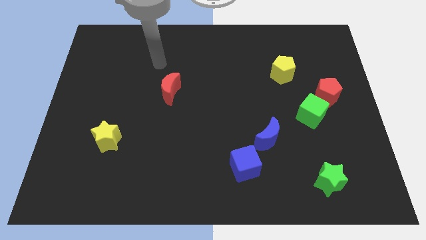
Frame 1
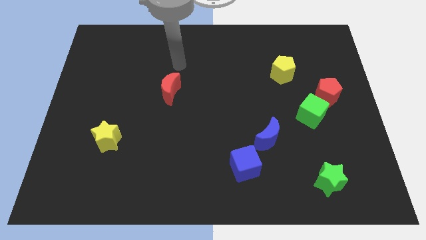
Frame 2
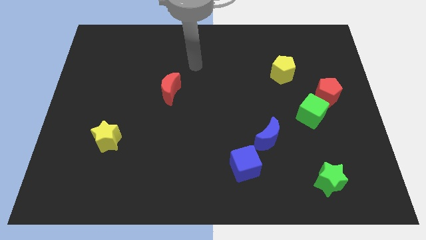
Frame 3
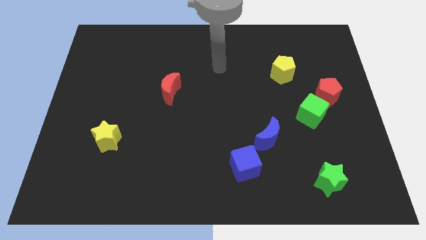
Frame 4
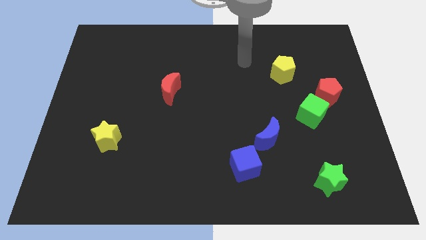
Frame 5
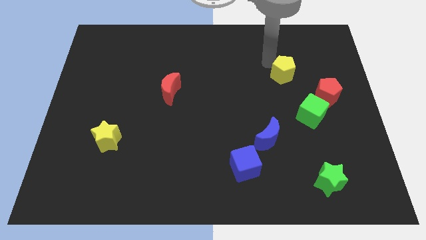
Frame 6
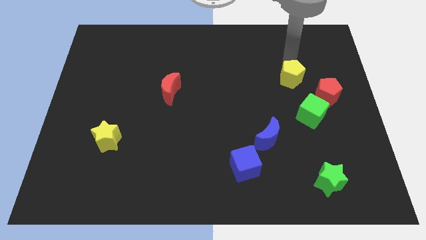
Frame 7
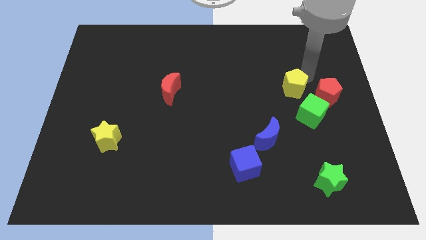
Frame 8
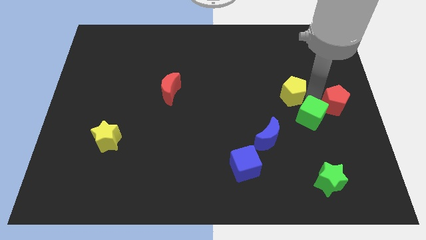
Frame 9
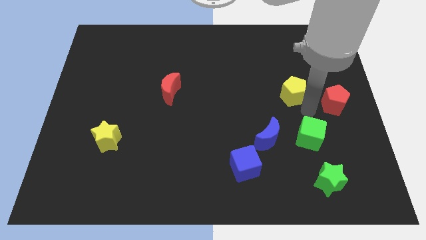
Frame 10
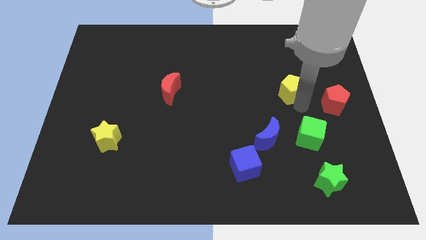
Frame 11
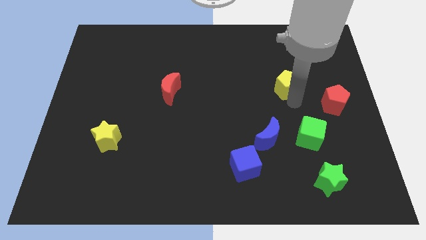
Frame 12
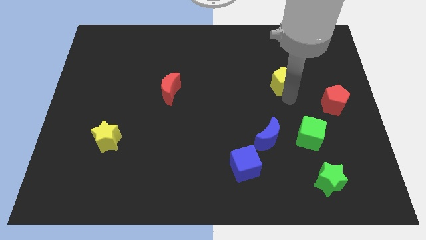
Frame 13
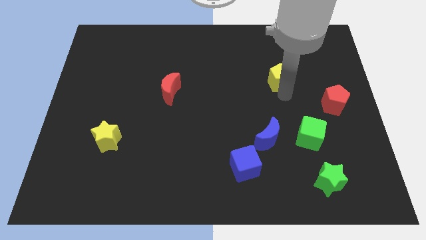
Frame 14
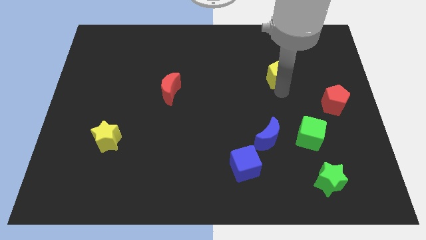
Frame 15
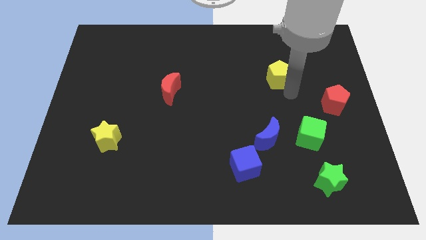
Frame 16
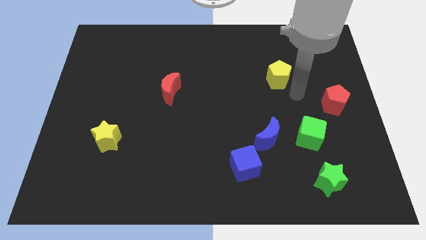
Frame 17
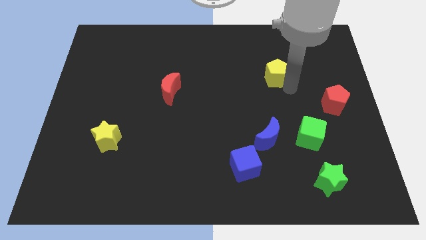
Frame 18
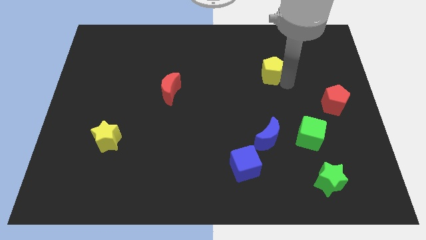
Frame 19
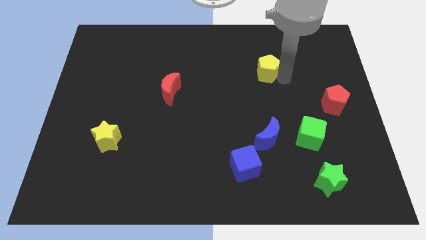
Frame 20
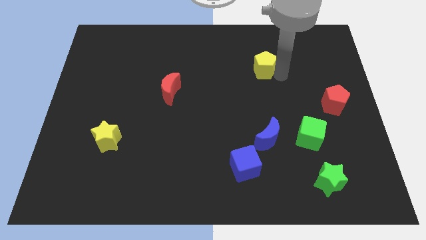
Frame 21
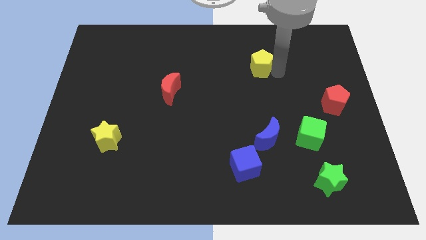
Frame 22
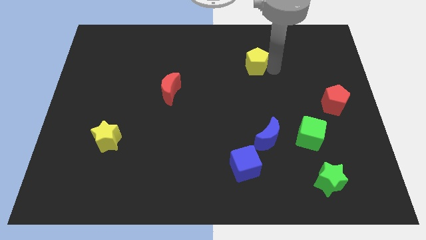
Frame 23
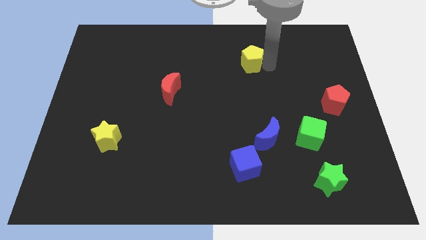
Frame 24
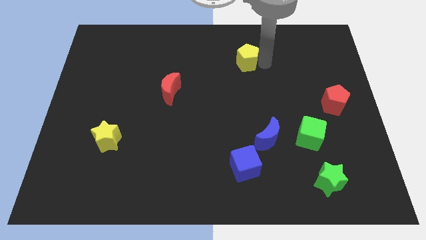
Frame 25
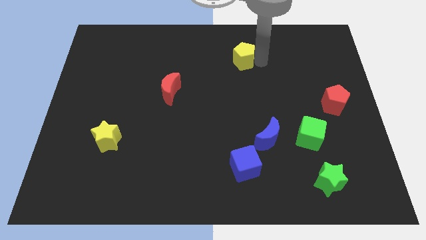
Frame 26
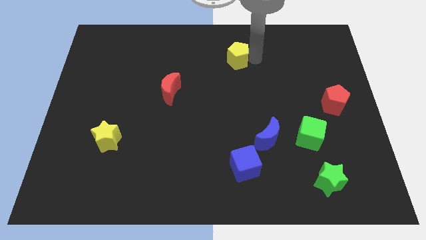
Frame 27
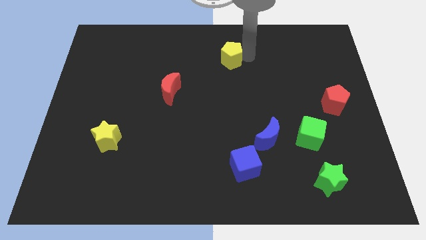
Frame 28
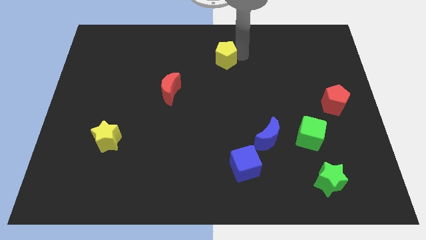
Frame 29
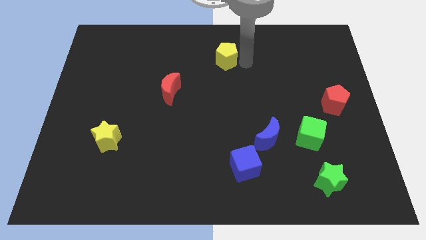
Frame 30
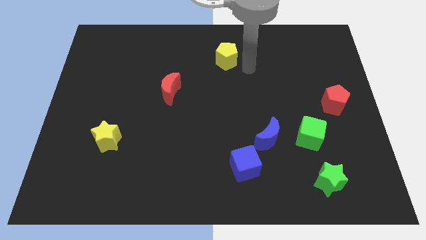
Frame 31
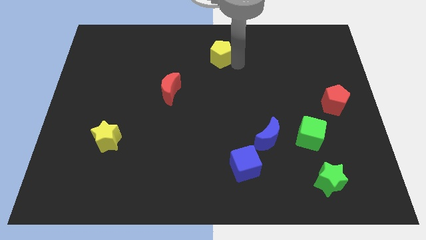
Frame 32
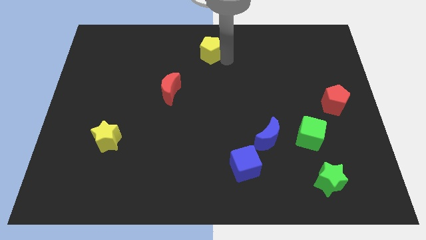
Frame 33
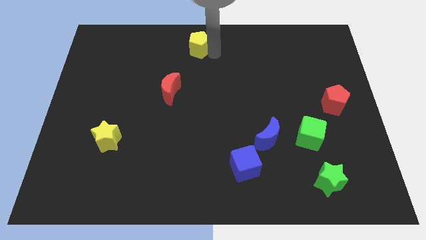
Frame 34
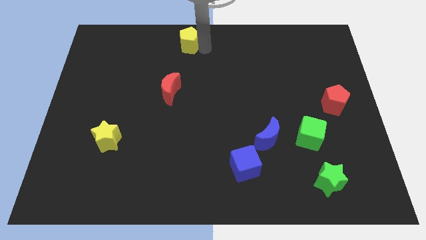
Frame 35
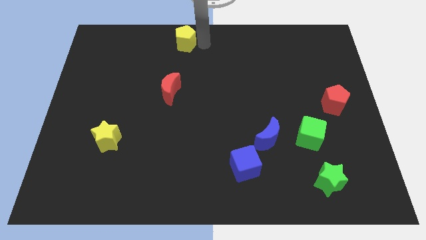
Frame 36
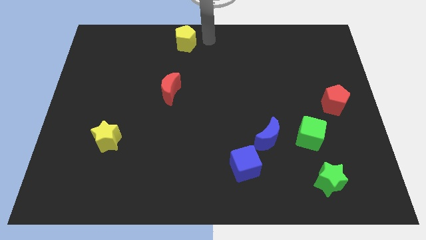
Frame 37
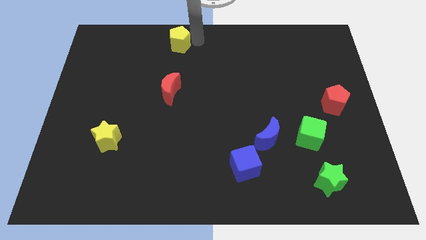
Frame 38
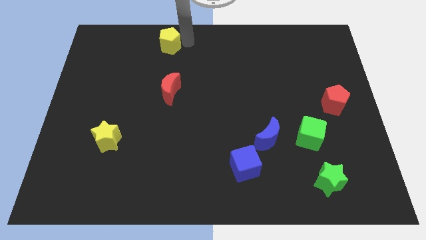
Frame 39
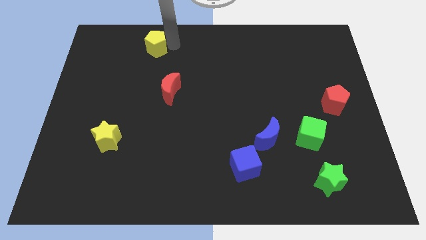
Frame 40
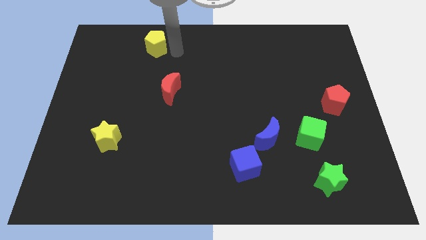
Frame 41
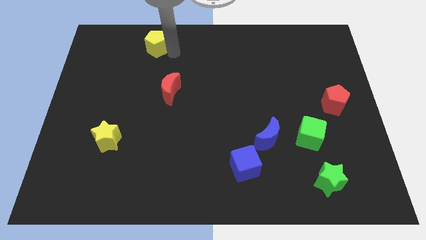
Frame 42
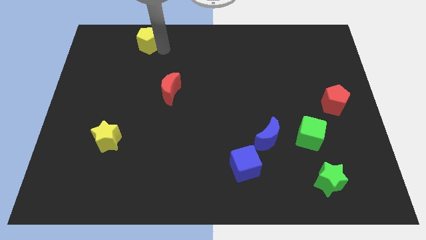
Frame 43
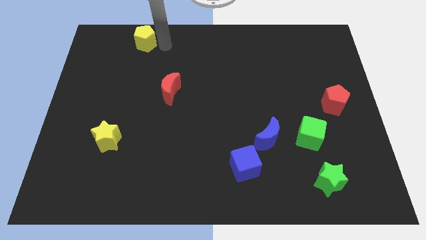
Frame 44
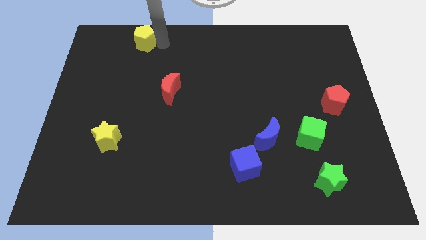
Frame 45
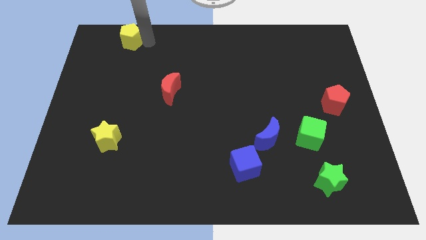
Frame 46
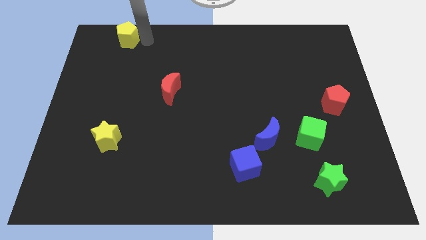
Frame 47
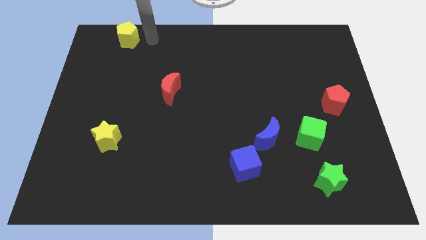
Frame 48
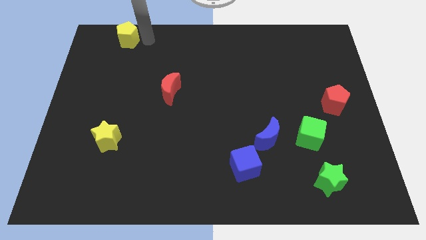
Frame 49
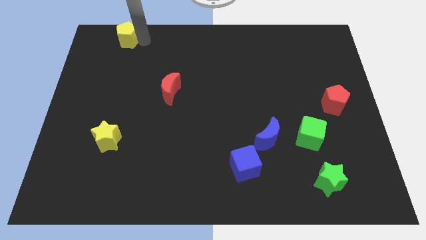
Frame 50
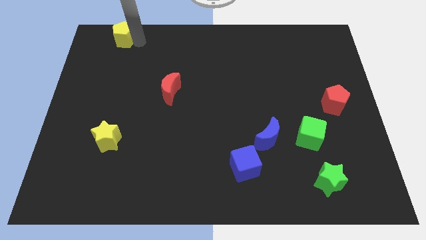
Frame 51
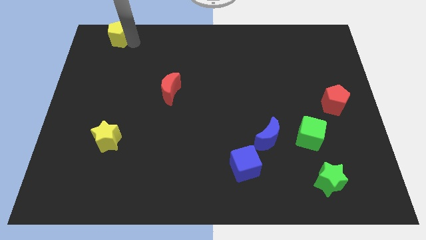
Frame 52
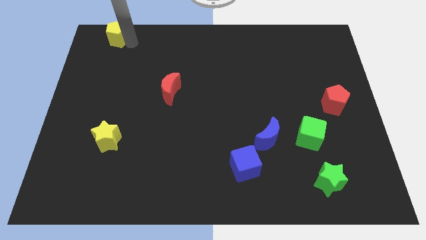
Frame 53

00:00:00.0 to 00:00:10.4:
push the yellow pentagon to the upper left corner

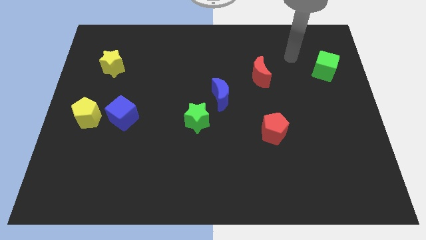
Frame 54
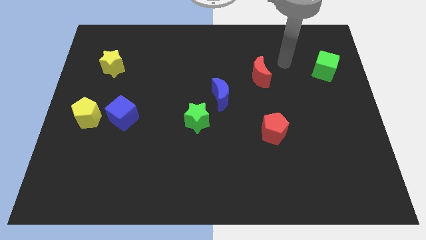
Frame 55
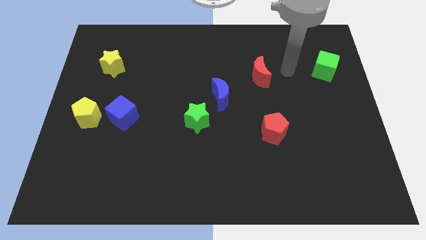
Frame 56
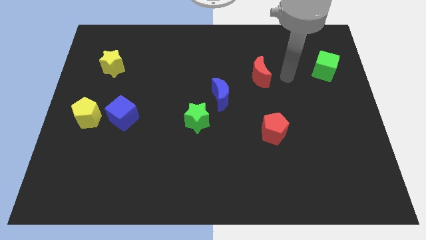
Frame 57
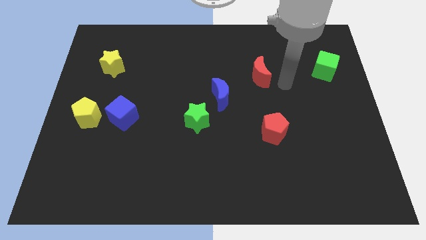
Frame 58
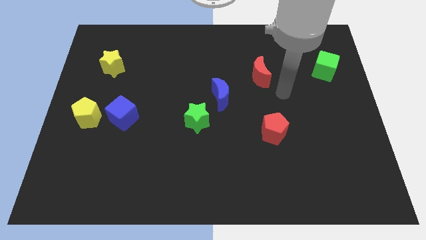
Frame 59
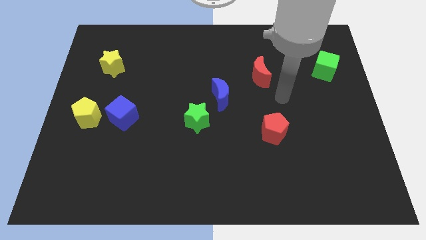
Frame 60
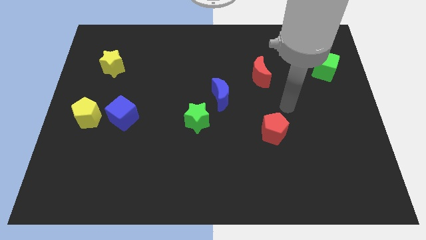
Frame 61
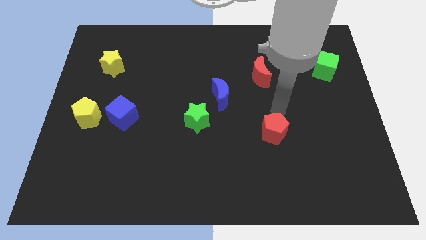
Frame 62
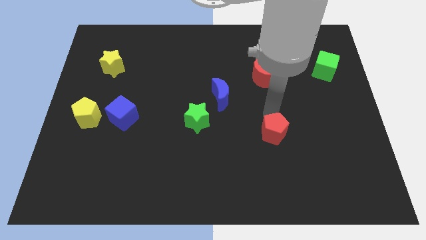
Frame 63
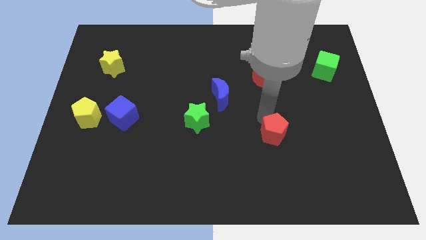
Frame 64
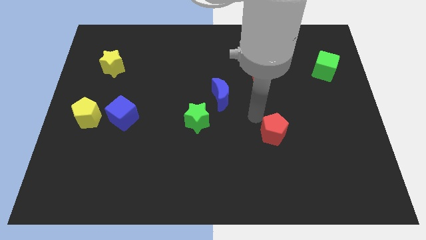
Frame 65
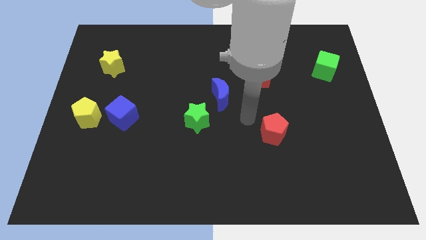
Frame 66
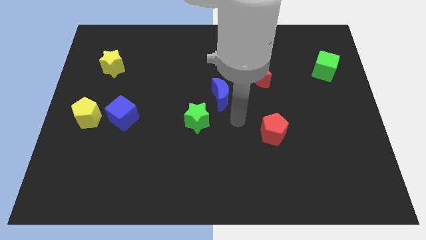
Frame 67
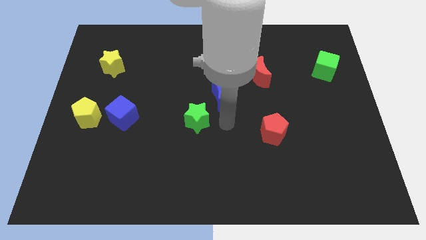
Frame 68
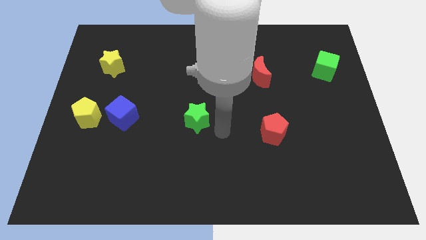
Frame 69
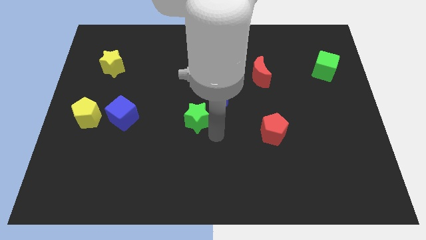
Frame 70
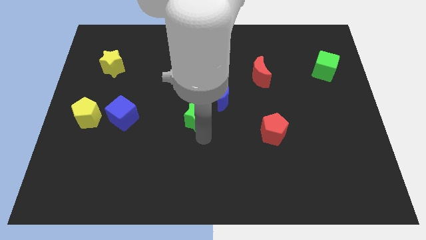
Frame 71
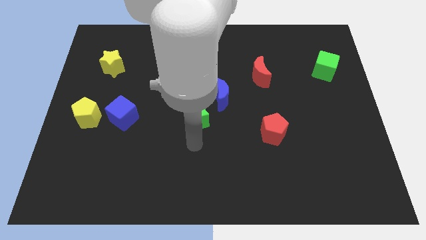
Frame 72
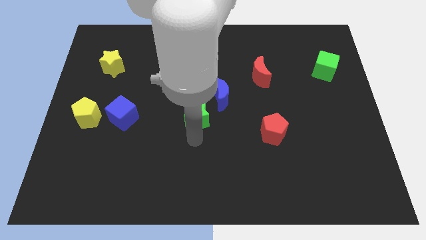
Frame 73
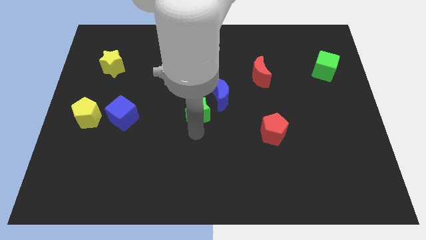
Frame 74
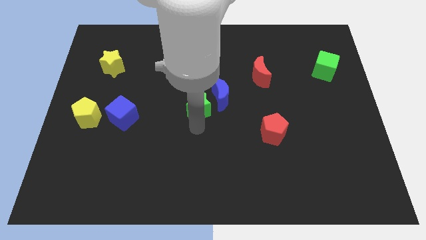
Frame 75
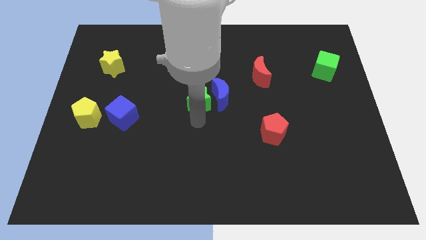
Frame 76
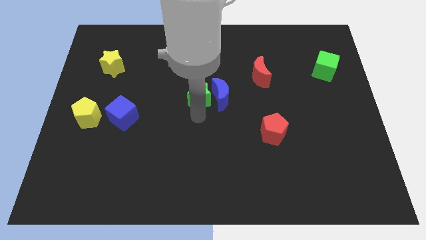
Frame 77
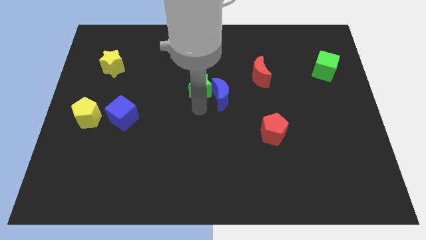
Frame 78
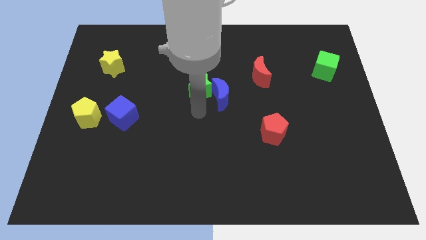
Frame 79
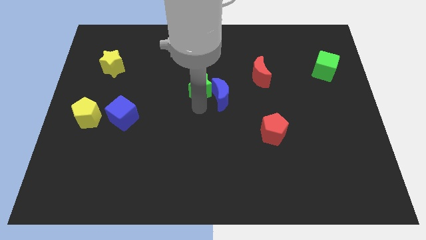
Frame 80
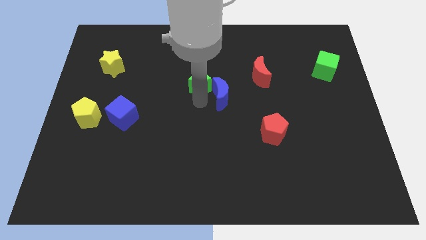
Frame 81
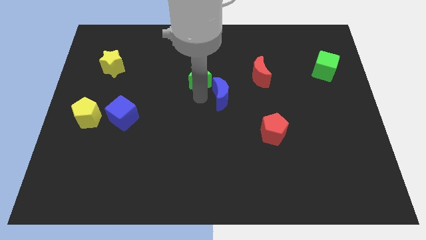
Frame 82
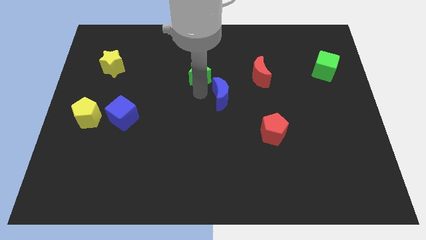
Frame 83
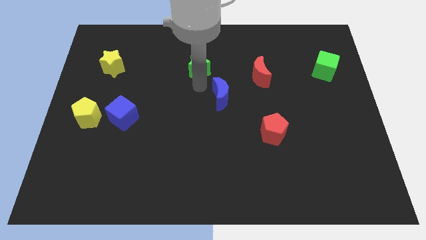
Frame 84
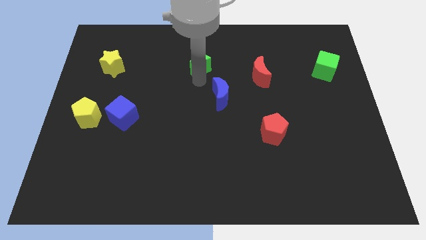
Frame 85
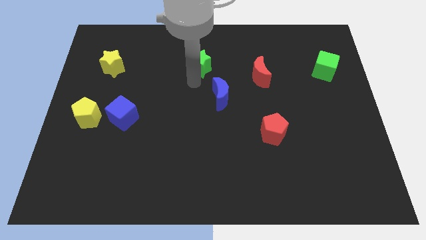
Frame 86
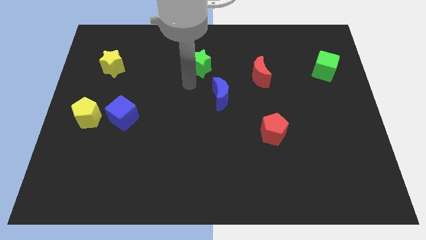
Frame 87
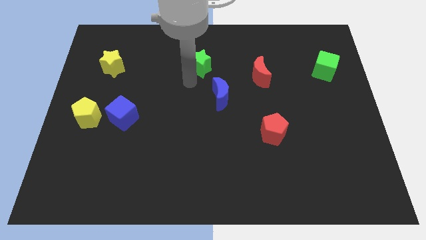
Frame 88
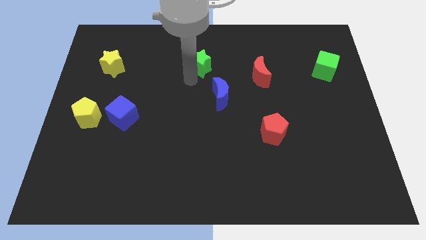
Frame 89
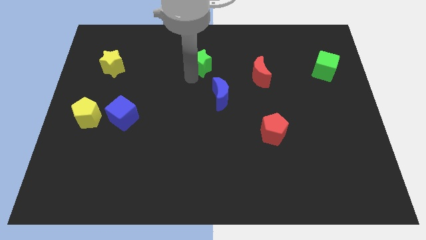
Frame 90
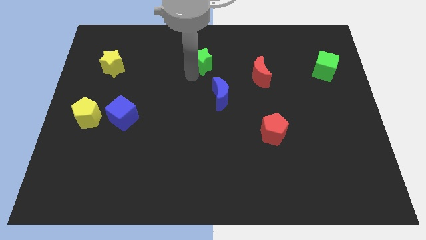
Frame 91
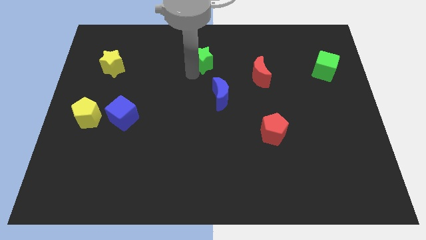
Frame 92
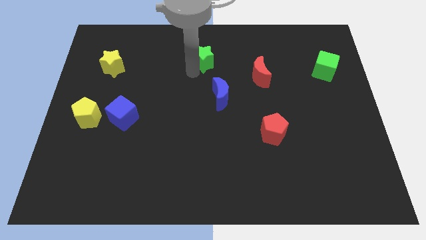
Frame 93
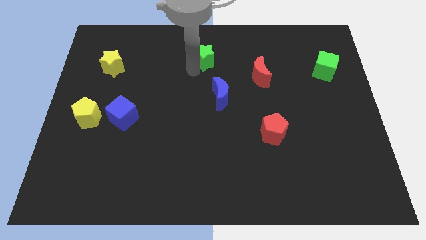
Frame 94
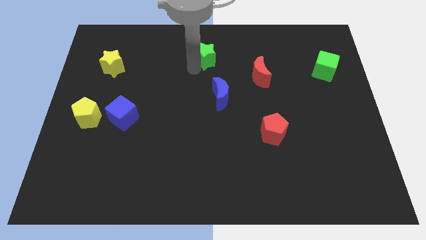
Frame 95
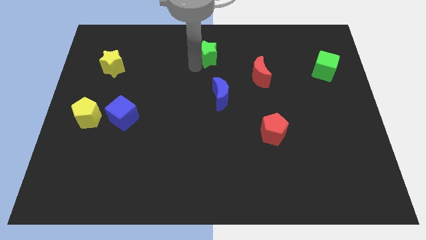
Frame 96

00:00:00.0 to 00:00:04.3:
slide the green star to the top side
